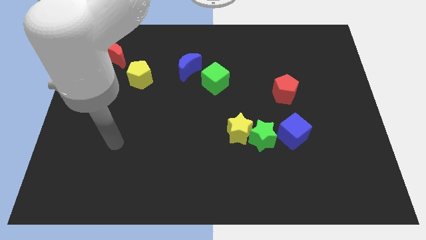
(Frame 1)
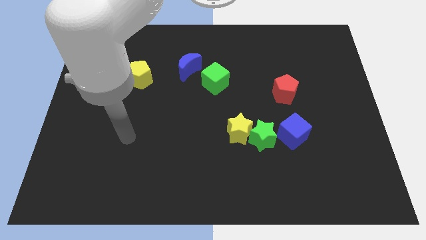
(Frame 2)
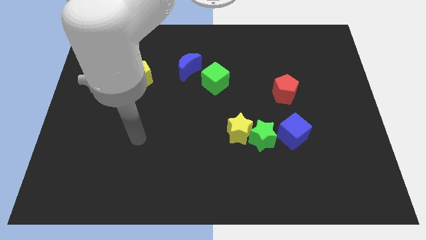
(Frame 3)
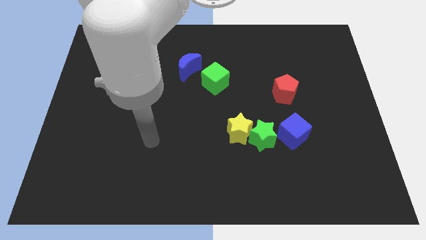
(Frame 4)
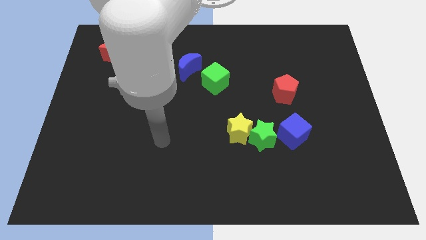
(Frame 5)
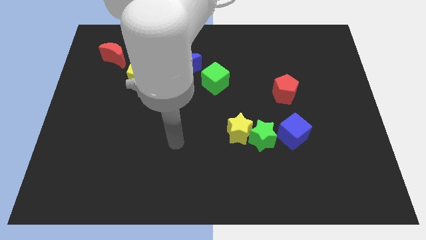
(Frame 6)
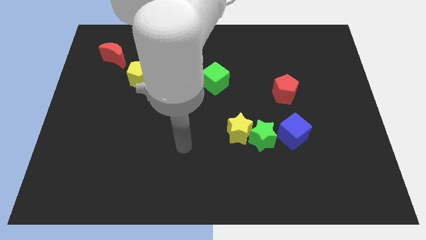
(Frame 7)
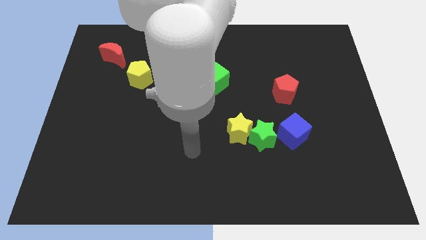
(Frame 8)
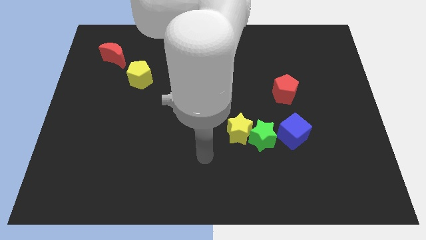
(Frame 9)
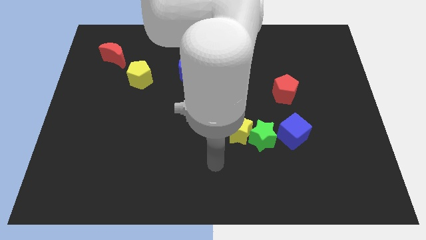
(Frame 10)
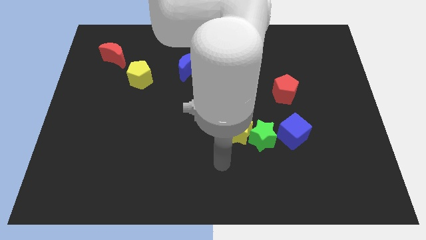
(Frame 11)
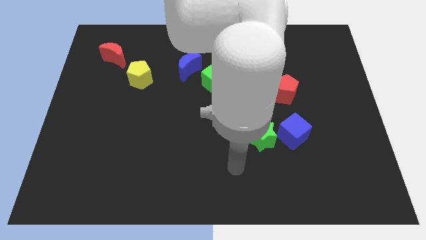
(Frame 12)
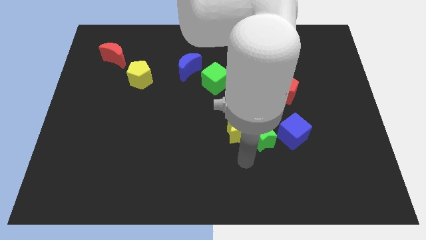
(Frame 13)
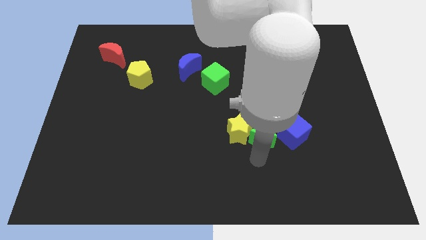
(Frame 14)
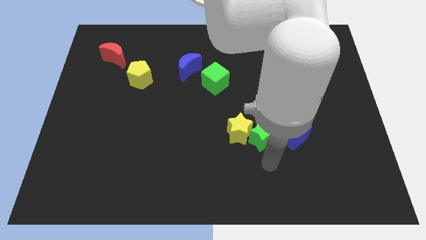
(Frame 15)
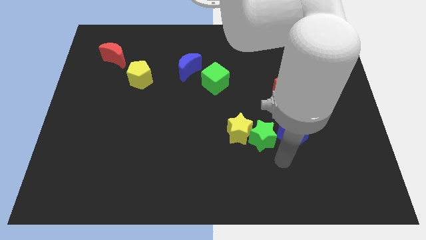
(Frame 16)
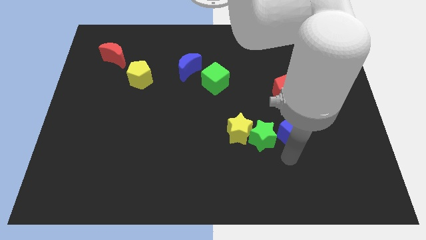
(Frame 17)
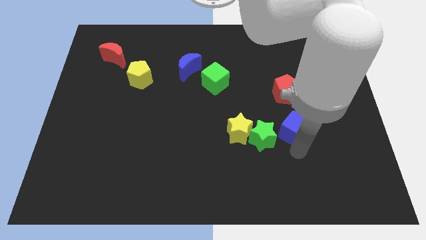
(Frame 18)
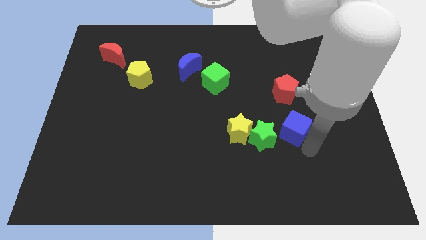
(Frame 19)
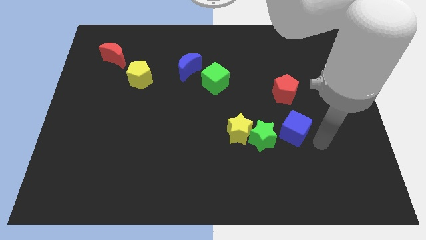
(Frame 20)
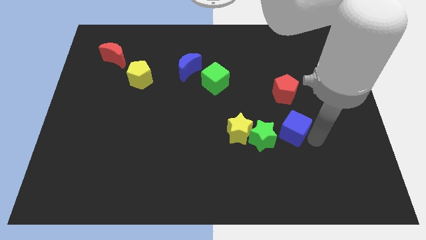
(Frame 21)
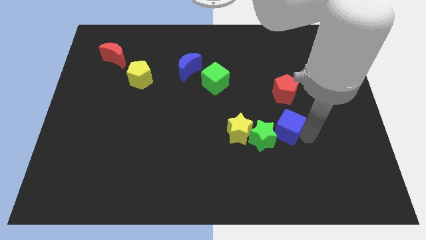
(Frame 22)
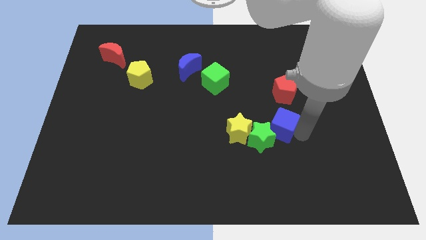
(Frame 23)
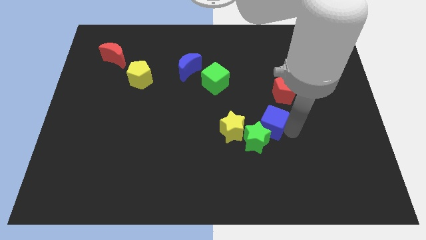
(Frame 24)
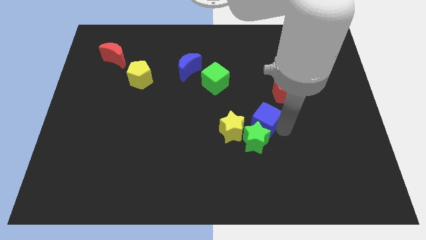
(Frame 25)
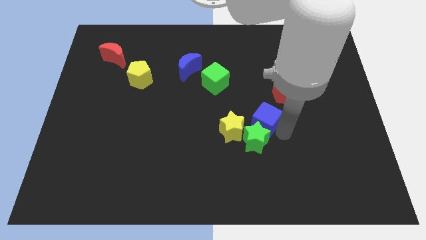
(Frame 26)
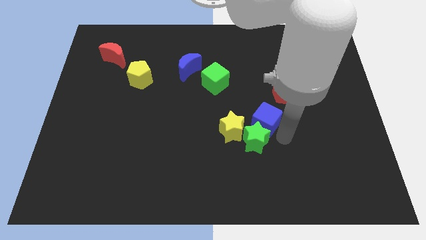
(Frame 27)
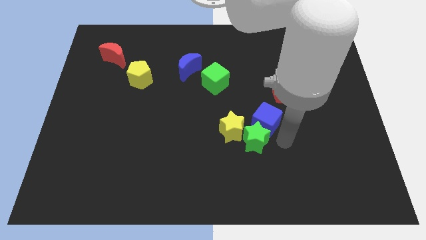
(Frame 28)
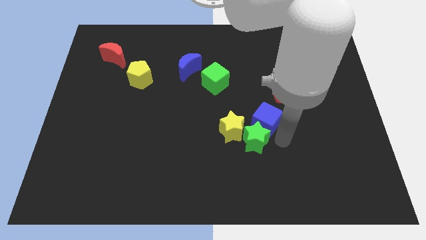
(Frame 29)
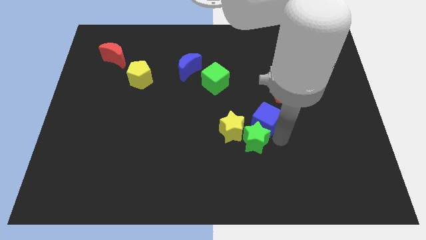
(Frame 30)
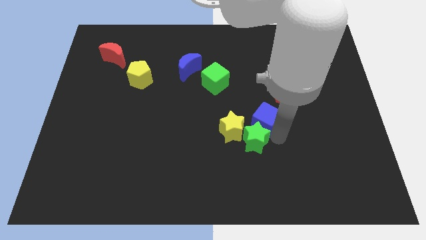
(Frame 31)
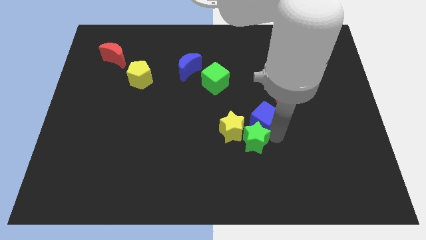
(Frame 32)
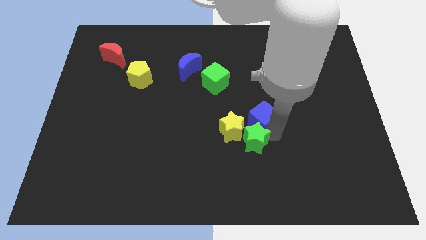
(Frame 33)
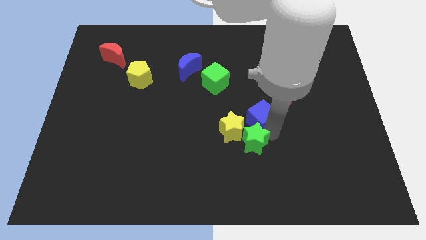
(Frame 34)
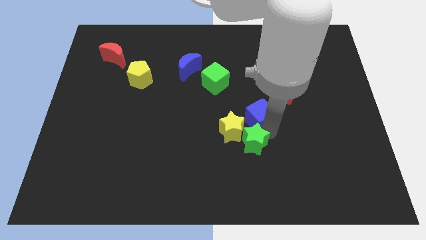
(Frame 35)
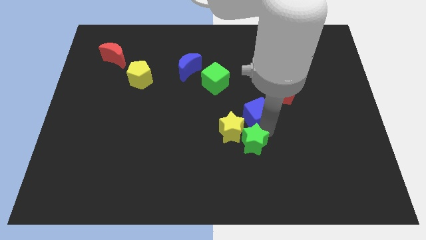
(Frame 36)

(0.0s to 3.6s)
slightly slide the blue cube left

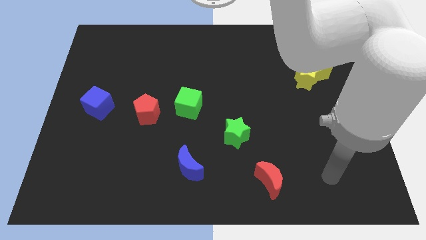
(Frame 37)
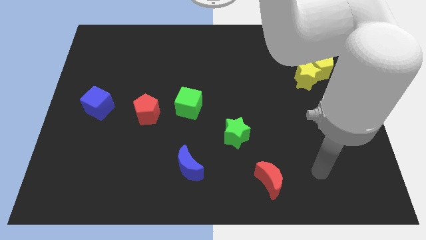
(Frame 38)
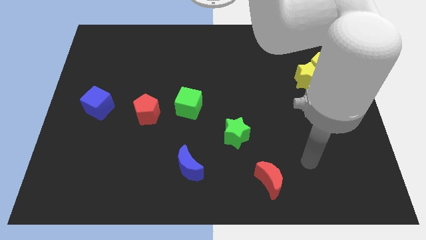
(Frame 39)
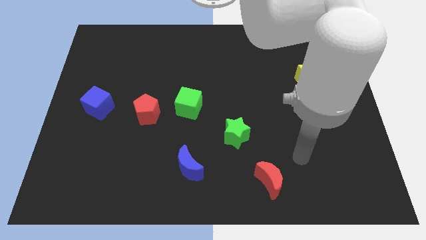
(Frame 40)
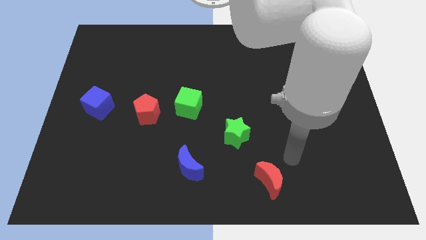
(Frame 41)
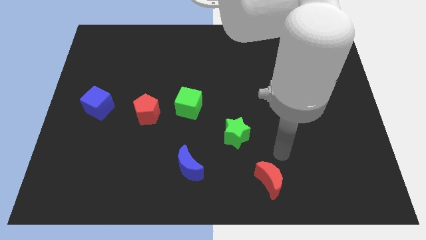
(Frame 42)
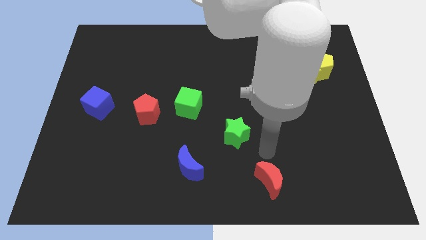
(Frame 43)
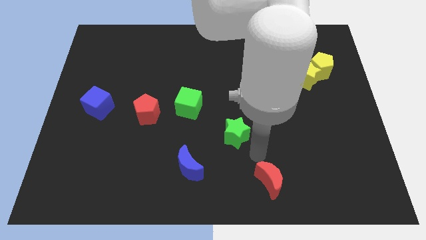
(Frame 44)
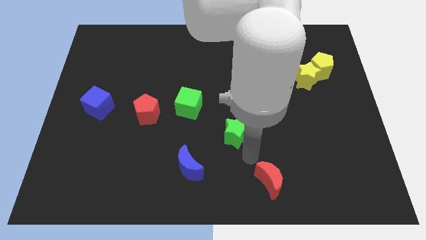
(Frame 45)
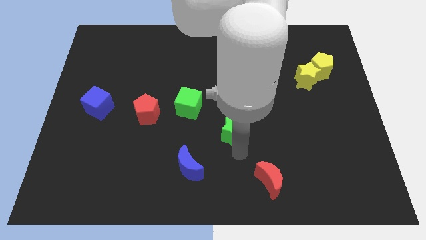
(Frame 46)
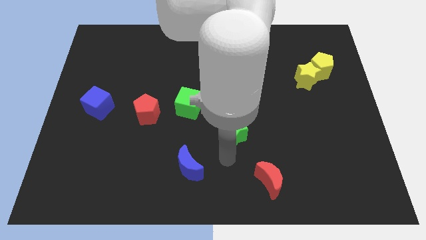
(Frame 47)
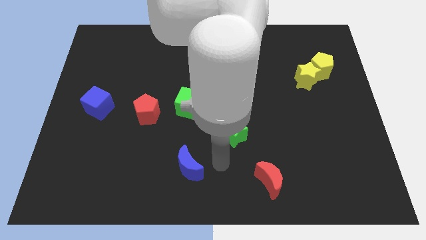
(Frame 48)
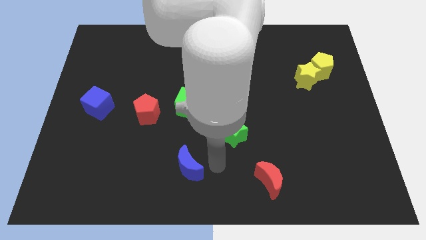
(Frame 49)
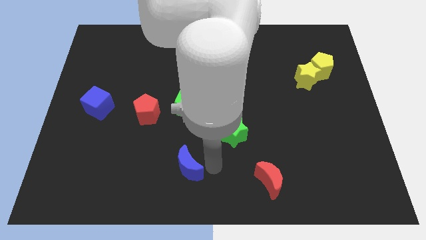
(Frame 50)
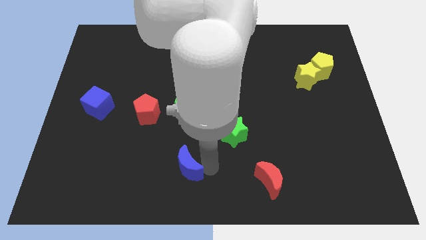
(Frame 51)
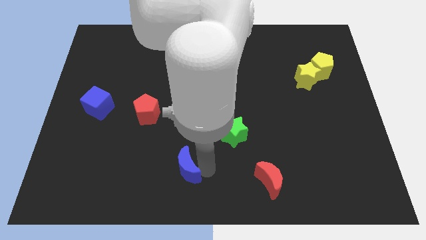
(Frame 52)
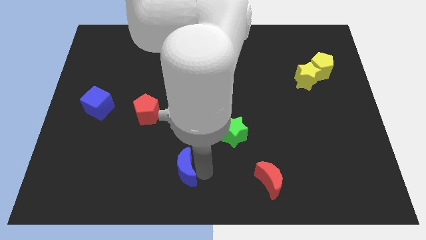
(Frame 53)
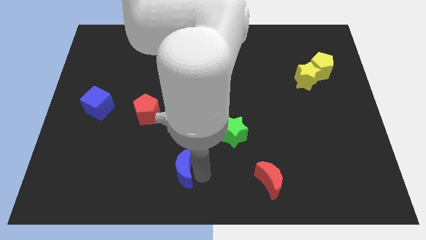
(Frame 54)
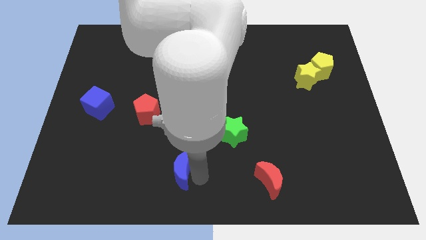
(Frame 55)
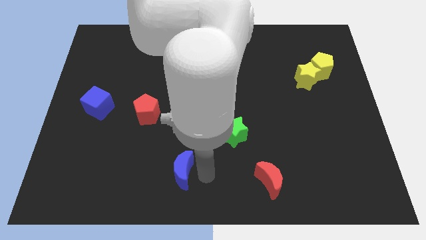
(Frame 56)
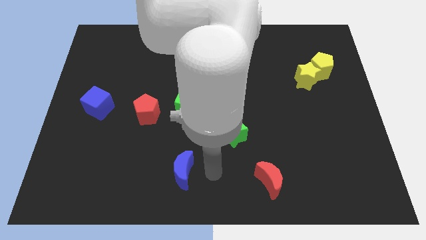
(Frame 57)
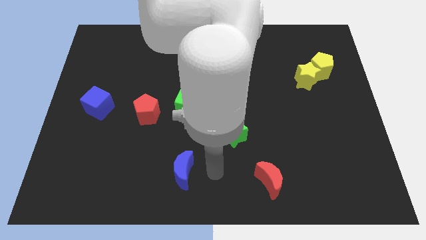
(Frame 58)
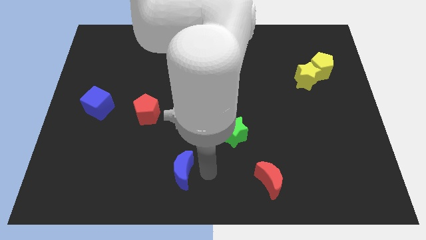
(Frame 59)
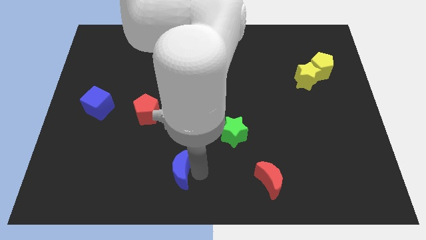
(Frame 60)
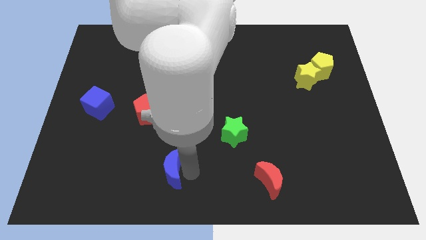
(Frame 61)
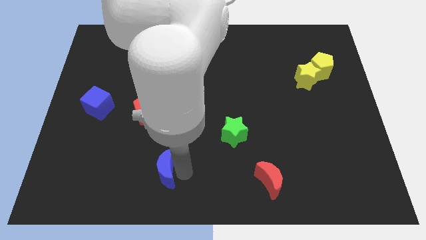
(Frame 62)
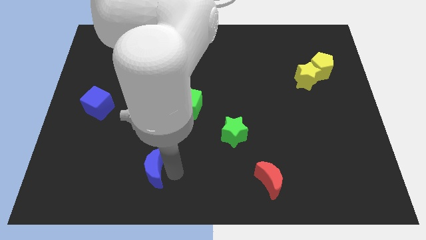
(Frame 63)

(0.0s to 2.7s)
move the blue moon a bit to the left

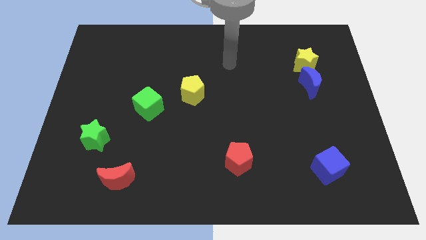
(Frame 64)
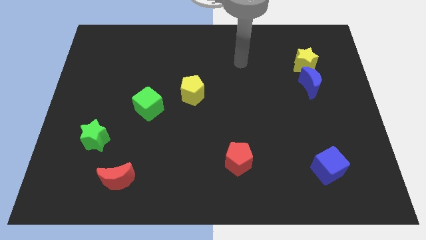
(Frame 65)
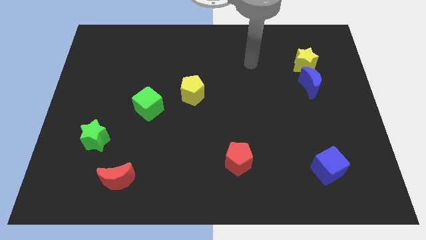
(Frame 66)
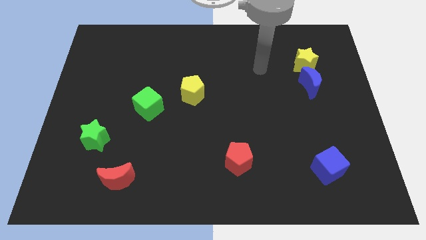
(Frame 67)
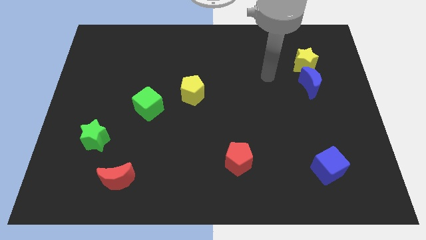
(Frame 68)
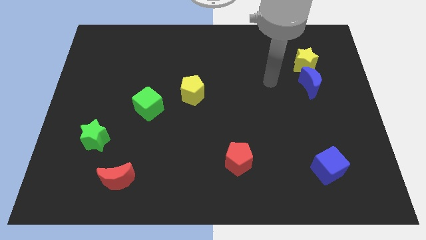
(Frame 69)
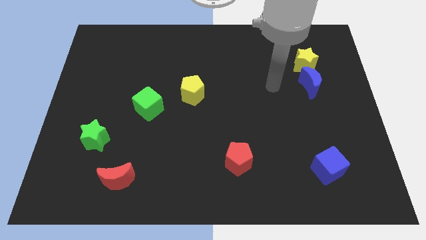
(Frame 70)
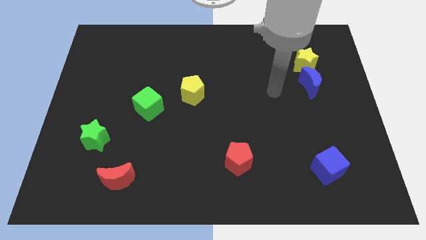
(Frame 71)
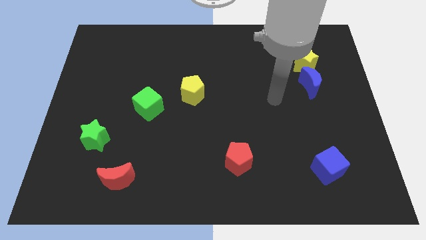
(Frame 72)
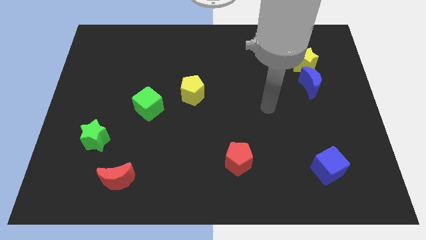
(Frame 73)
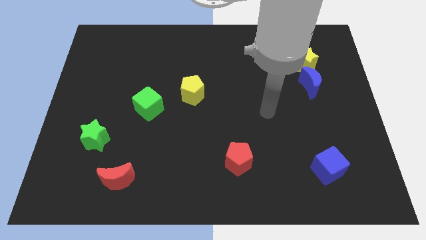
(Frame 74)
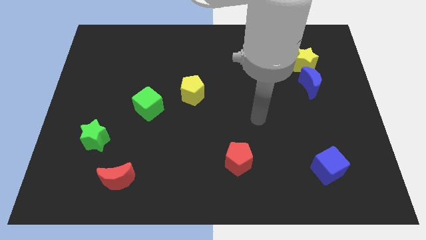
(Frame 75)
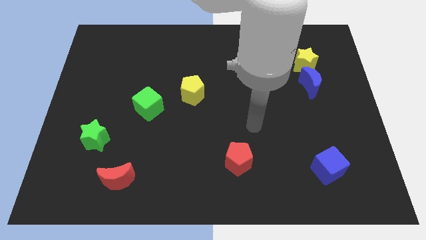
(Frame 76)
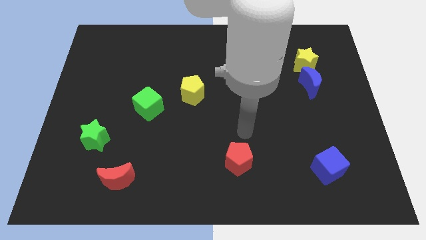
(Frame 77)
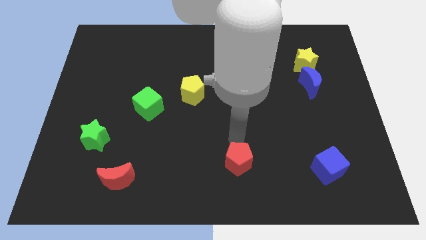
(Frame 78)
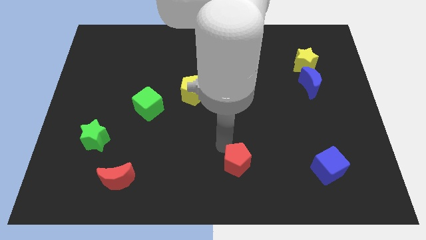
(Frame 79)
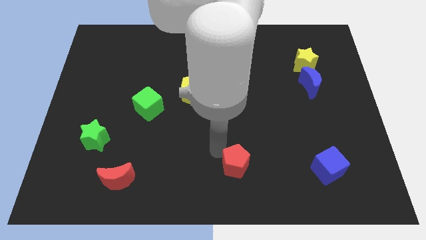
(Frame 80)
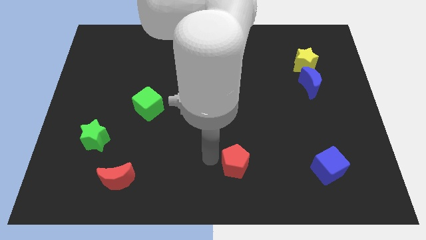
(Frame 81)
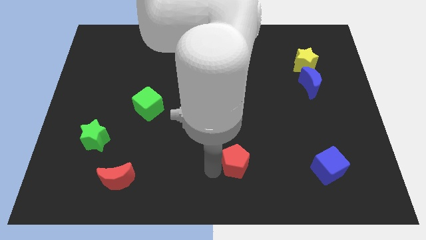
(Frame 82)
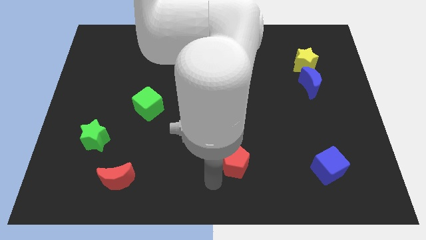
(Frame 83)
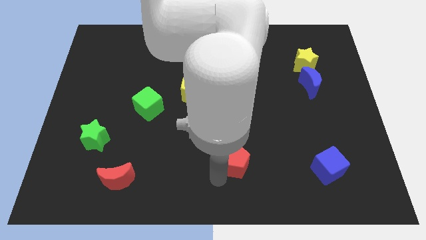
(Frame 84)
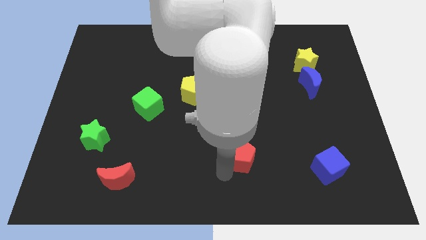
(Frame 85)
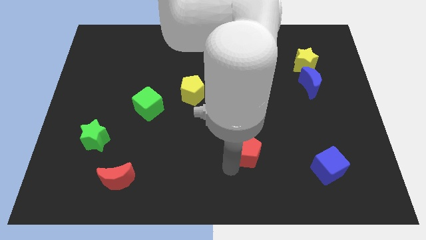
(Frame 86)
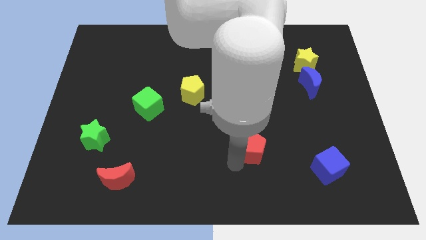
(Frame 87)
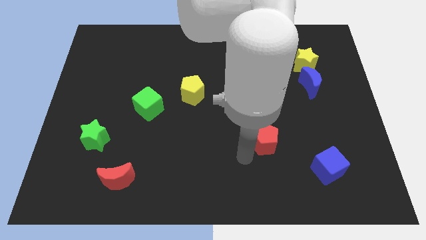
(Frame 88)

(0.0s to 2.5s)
push the red pentagon somewhat diagonally up and right

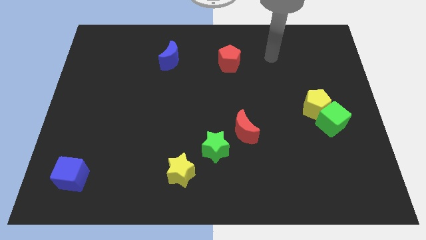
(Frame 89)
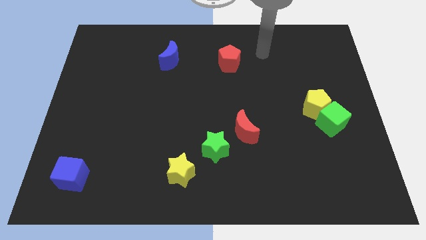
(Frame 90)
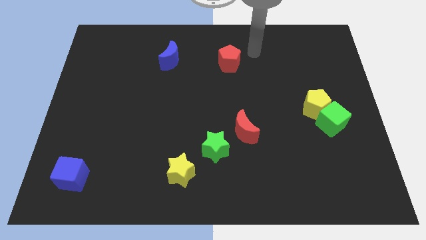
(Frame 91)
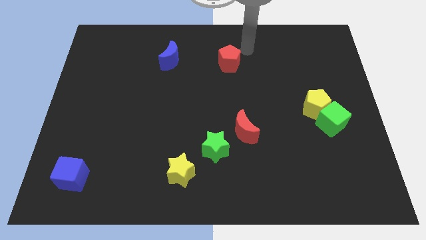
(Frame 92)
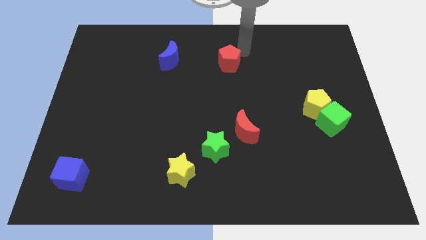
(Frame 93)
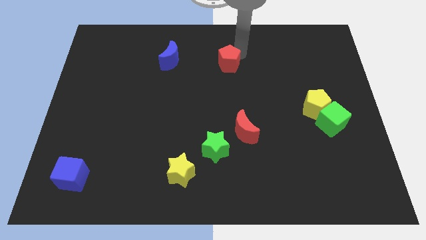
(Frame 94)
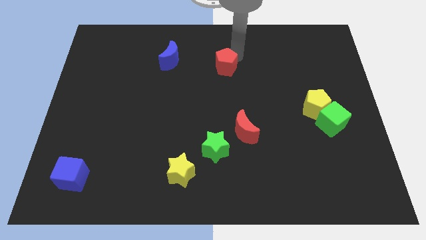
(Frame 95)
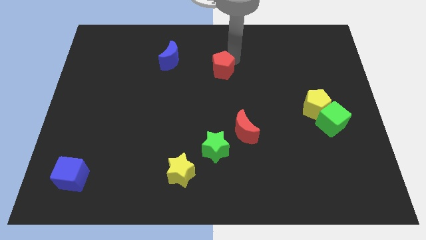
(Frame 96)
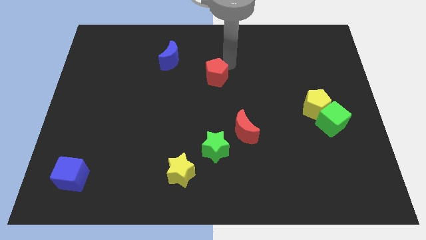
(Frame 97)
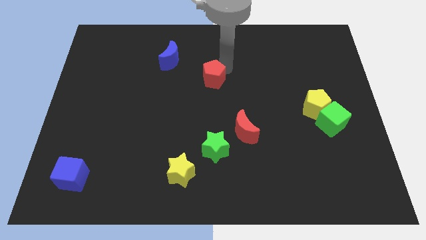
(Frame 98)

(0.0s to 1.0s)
push the red pentagon downwards and then to the left a little bit
